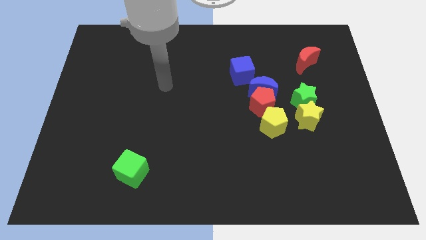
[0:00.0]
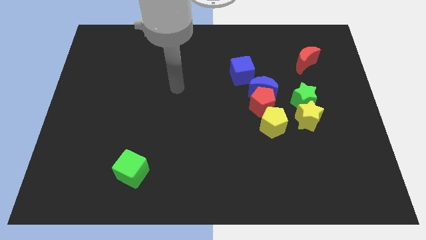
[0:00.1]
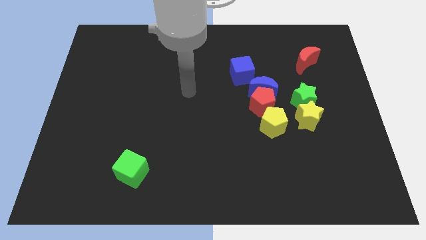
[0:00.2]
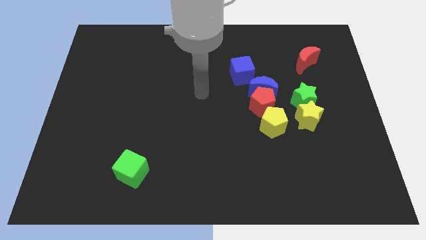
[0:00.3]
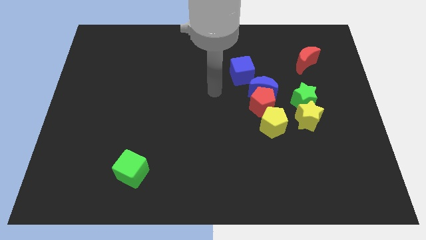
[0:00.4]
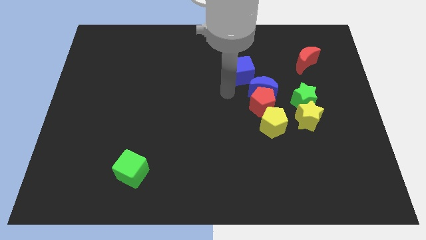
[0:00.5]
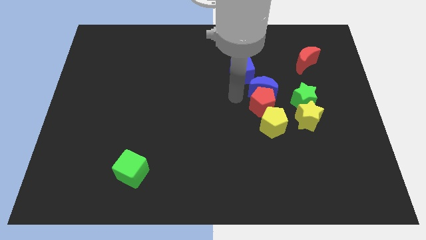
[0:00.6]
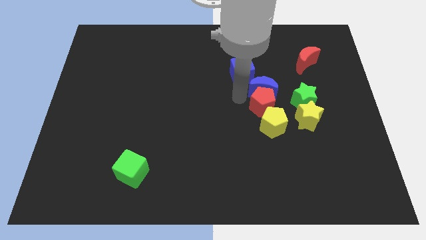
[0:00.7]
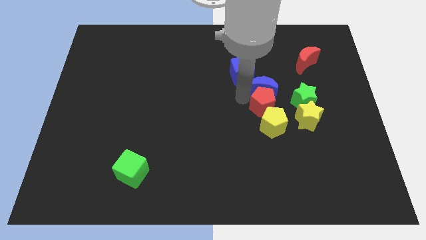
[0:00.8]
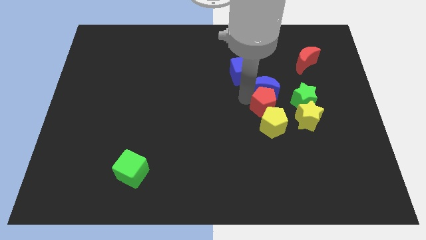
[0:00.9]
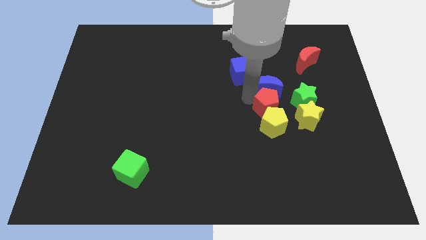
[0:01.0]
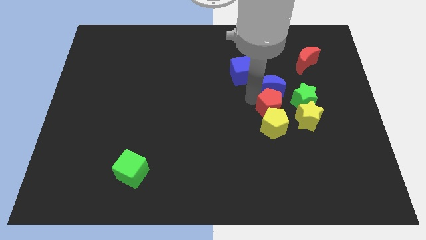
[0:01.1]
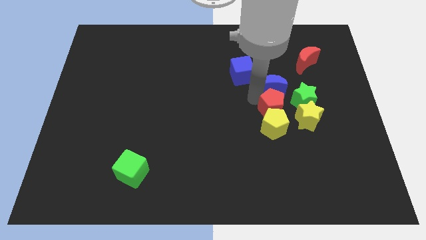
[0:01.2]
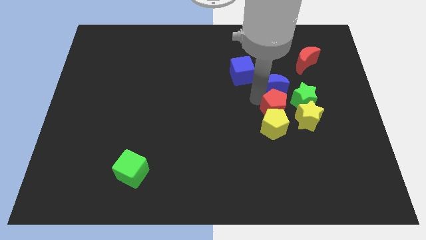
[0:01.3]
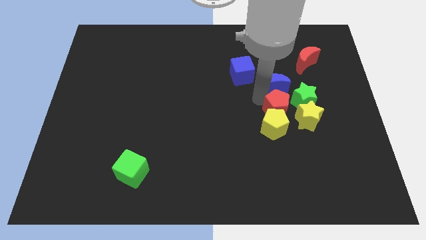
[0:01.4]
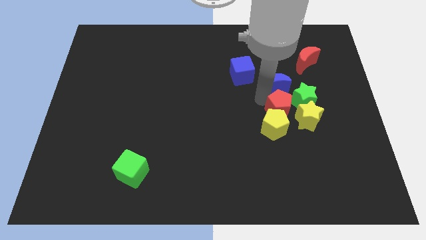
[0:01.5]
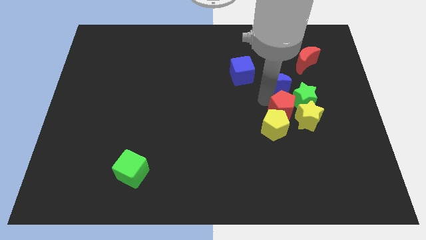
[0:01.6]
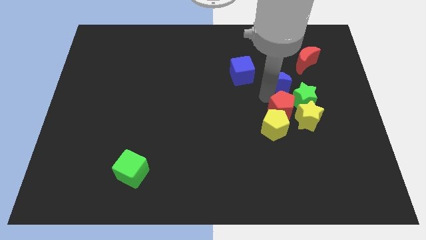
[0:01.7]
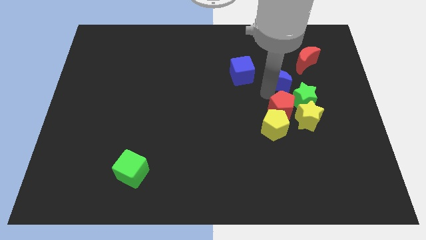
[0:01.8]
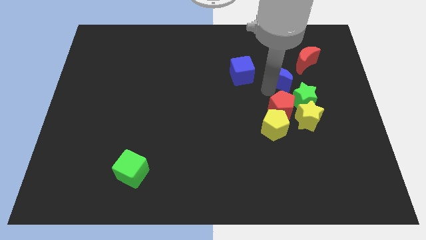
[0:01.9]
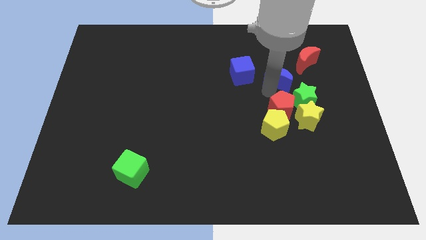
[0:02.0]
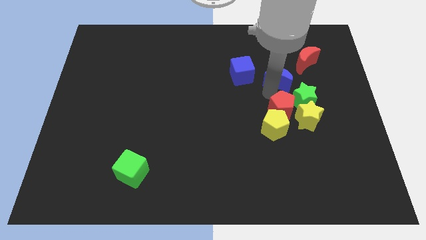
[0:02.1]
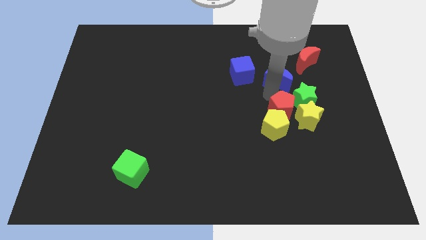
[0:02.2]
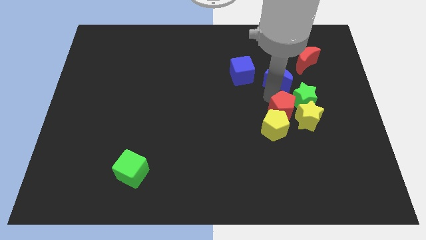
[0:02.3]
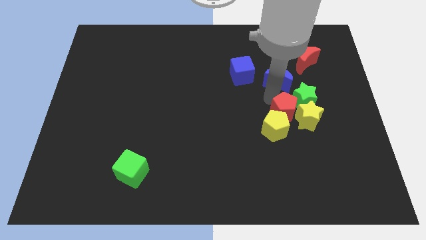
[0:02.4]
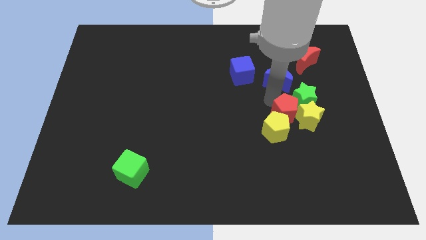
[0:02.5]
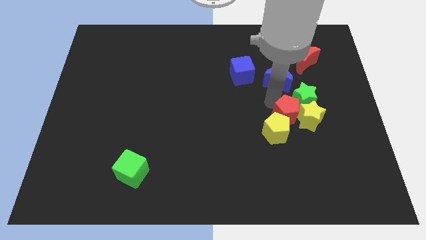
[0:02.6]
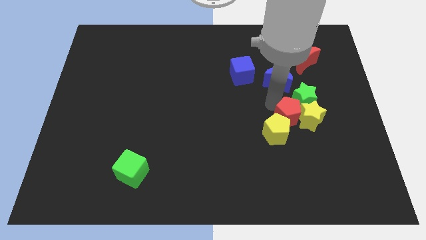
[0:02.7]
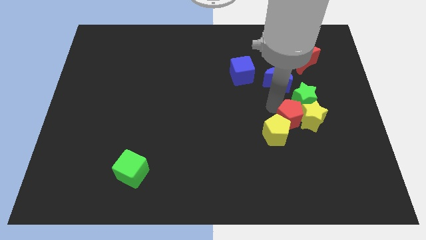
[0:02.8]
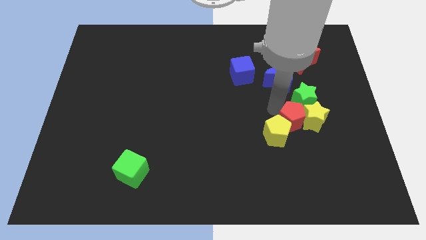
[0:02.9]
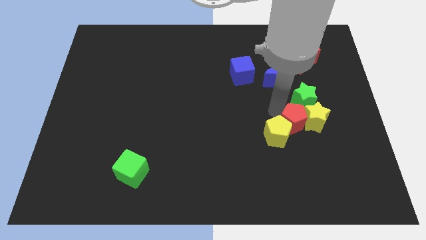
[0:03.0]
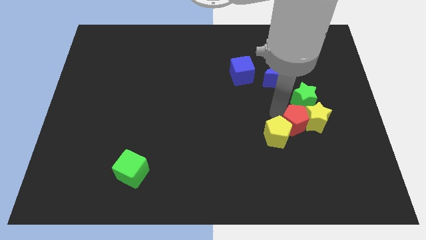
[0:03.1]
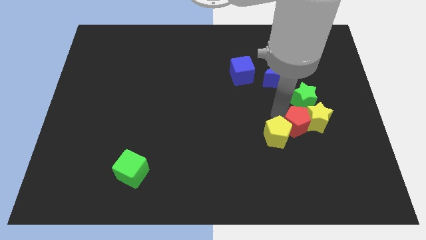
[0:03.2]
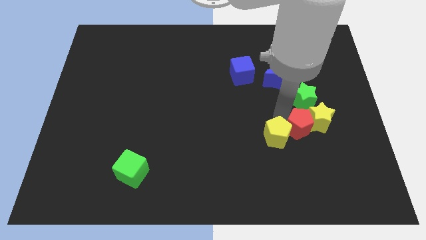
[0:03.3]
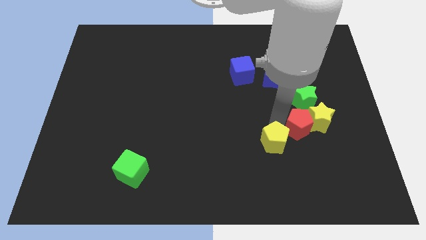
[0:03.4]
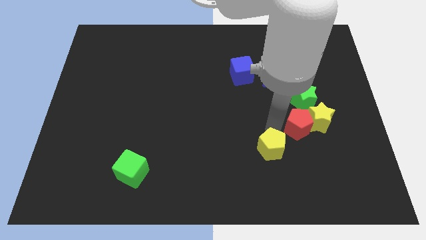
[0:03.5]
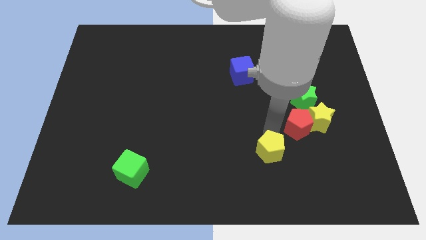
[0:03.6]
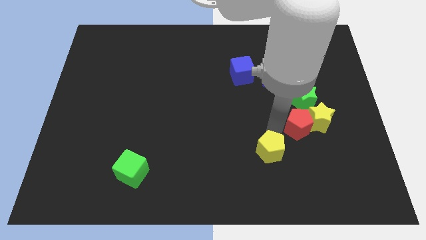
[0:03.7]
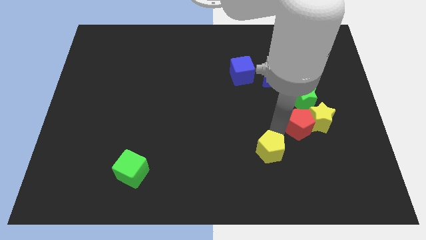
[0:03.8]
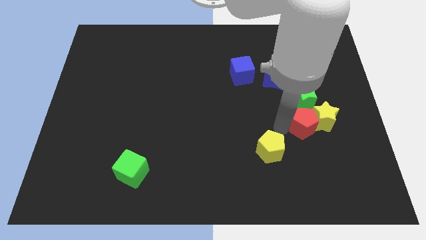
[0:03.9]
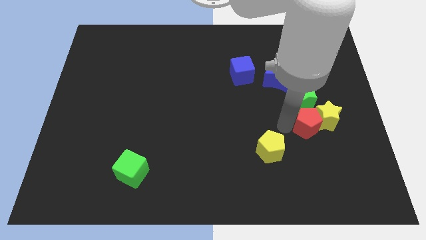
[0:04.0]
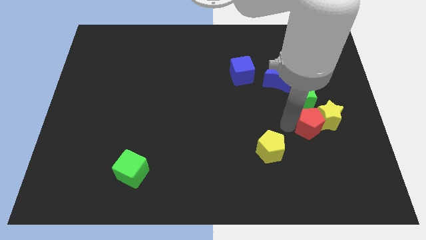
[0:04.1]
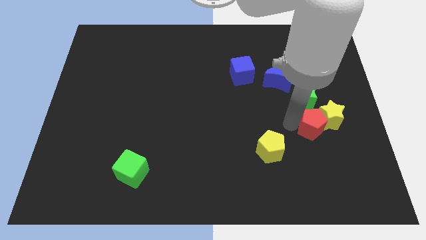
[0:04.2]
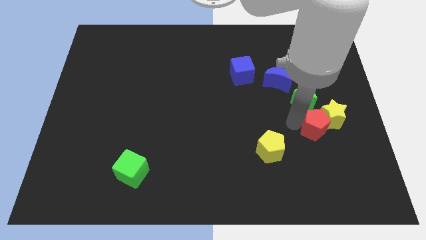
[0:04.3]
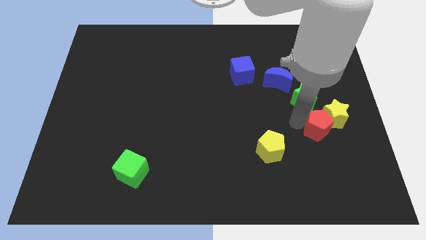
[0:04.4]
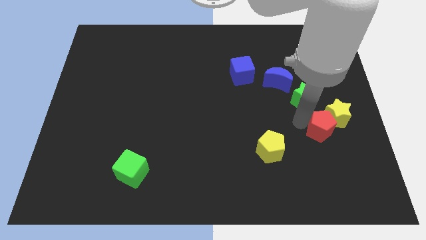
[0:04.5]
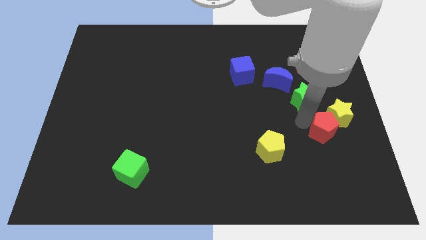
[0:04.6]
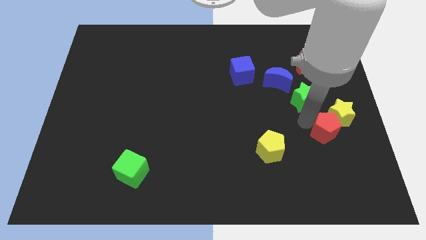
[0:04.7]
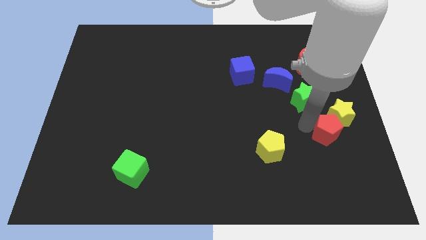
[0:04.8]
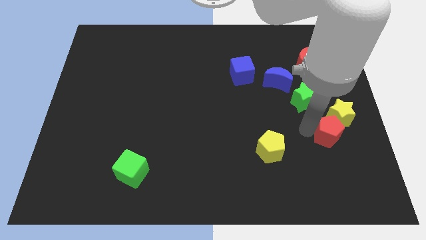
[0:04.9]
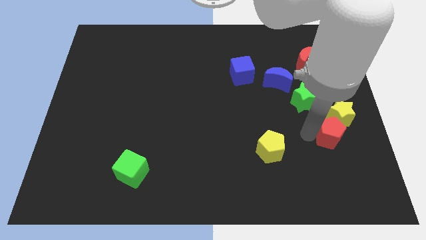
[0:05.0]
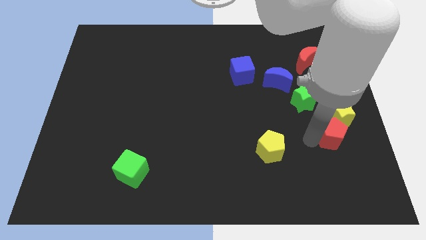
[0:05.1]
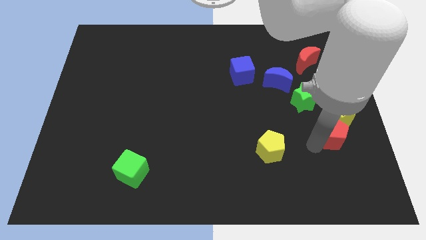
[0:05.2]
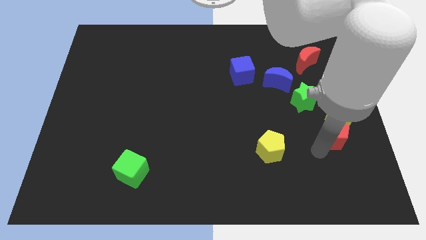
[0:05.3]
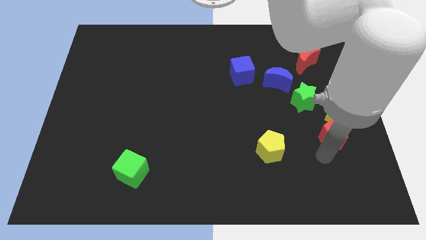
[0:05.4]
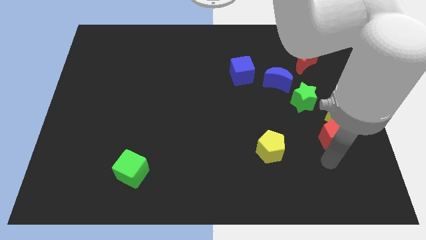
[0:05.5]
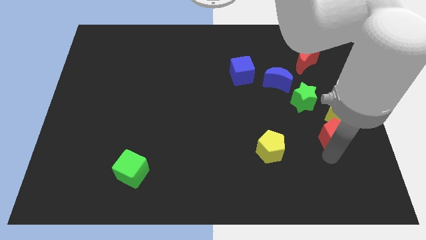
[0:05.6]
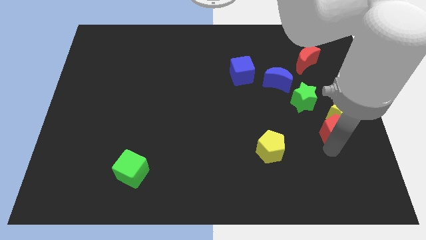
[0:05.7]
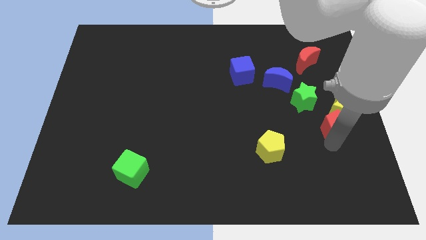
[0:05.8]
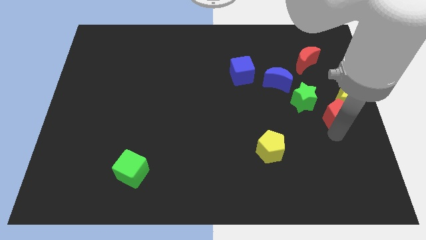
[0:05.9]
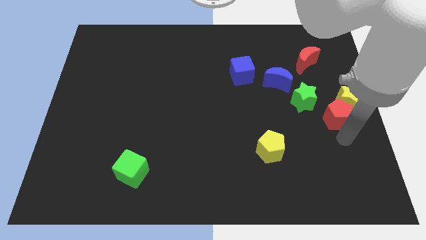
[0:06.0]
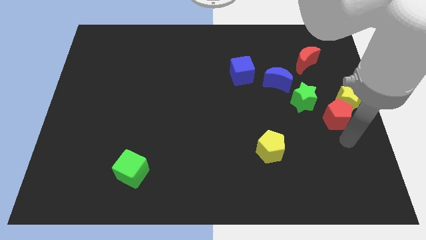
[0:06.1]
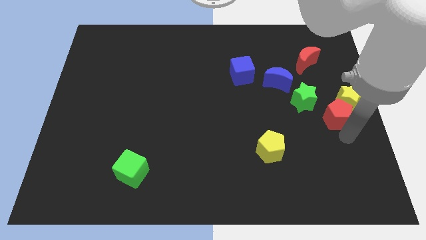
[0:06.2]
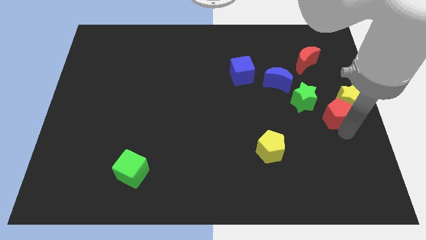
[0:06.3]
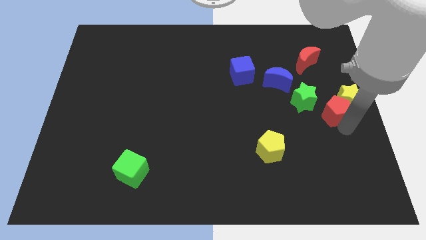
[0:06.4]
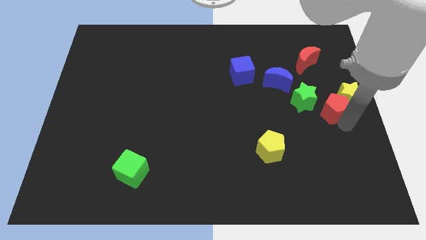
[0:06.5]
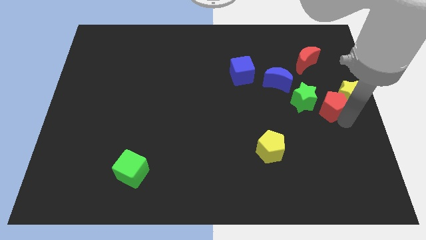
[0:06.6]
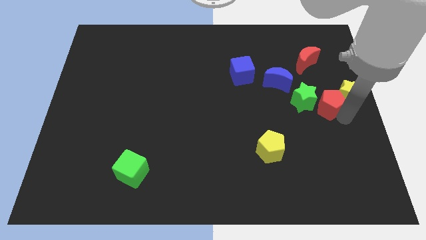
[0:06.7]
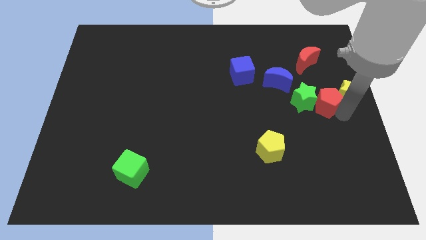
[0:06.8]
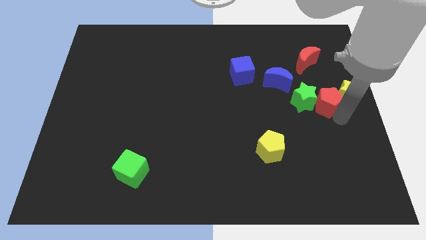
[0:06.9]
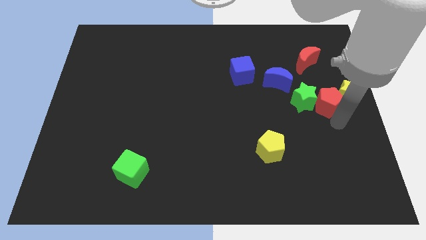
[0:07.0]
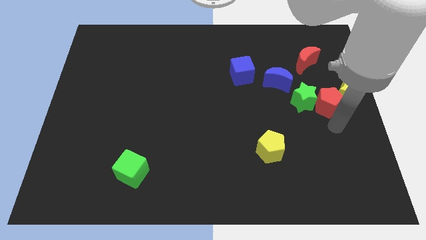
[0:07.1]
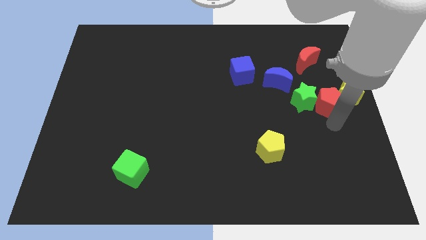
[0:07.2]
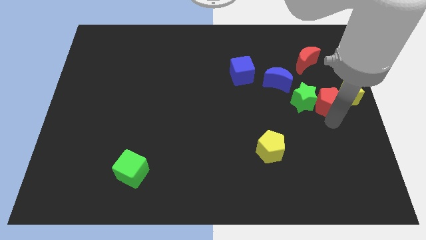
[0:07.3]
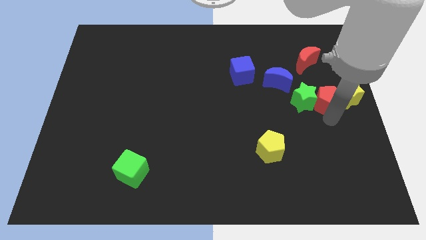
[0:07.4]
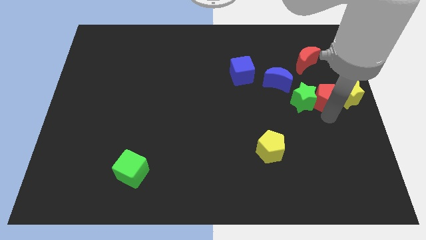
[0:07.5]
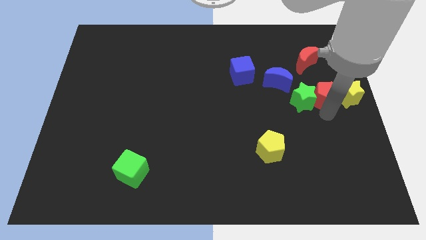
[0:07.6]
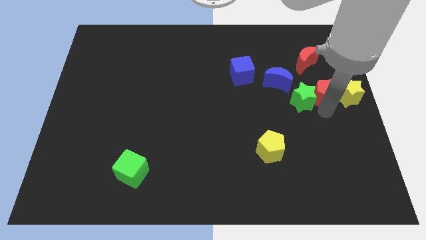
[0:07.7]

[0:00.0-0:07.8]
move the red pentagon right of the blue moon
